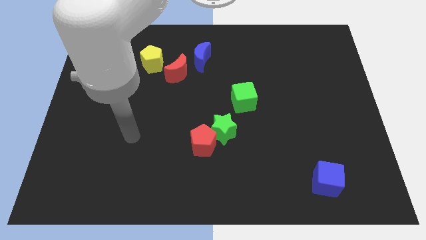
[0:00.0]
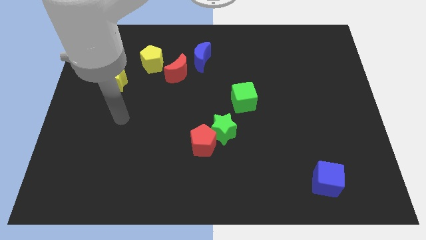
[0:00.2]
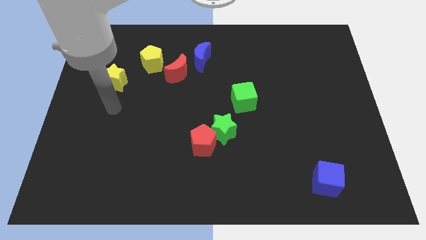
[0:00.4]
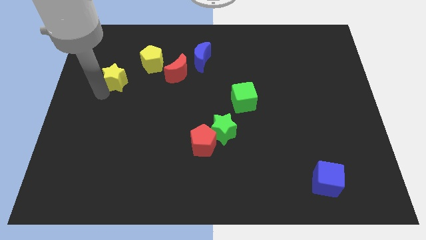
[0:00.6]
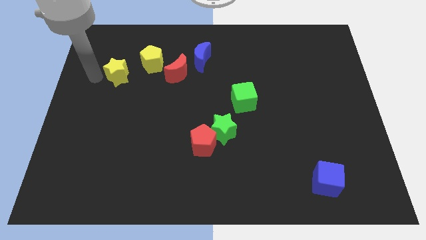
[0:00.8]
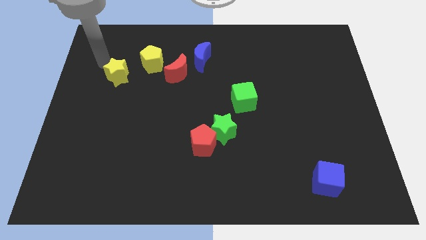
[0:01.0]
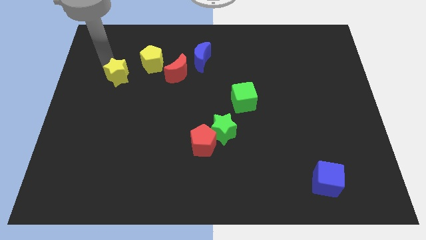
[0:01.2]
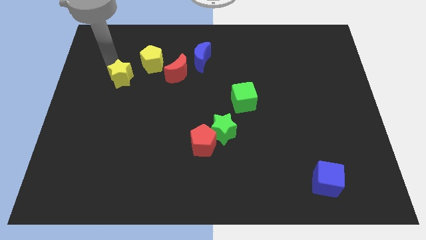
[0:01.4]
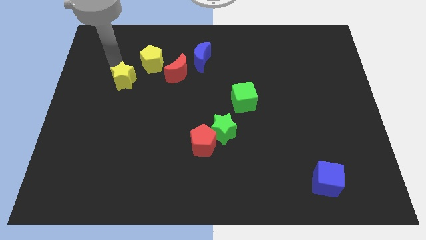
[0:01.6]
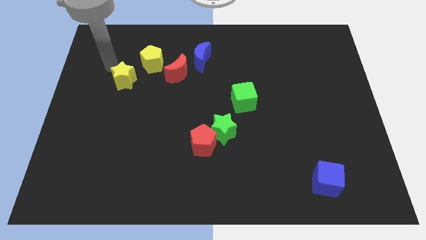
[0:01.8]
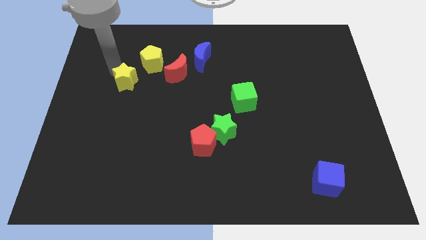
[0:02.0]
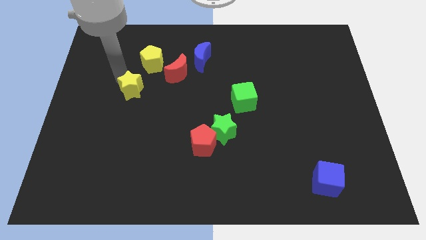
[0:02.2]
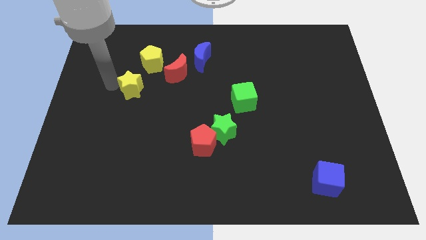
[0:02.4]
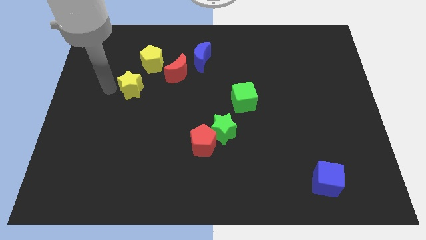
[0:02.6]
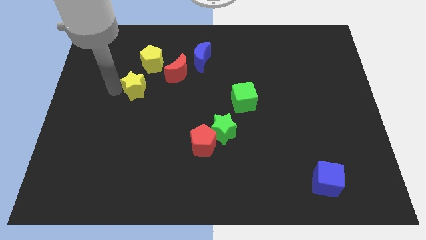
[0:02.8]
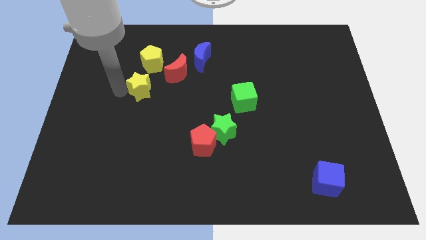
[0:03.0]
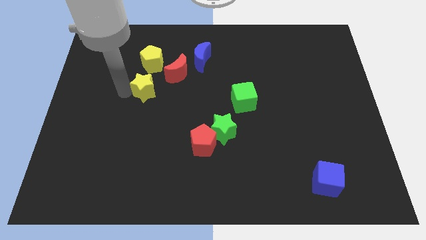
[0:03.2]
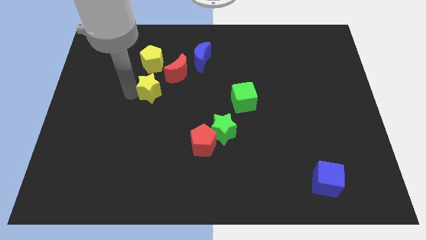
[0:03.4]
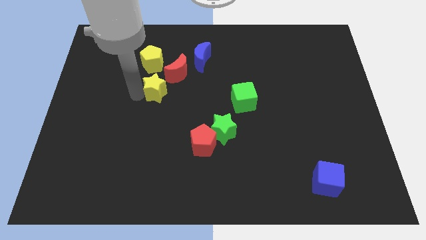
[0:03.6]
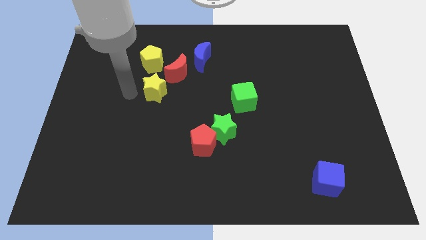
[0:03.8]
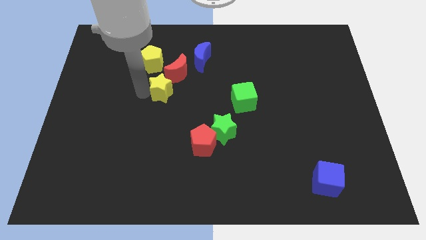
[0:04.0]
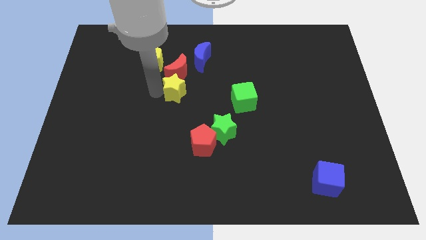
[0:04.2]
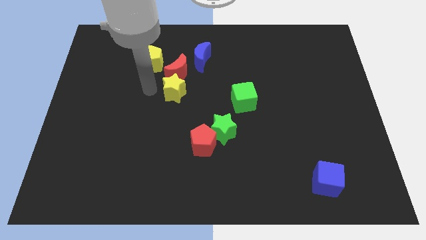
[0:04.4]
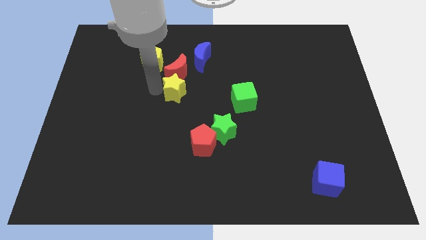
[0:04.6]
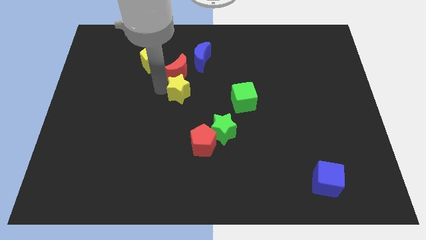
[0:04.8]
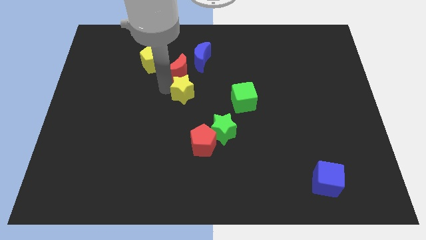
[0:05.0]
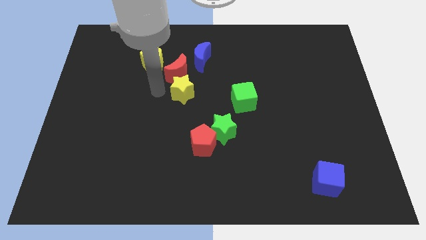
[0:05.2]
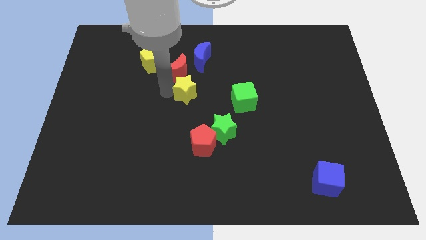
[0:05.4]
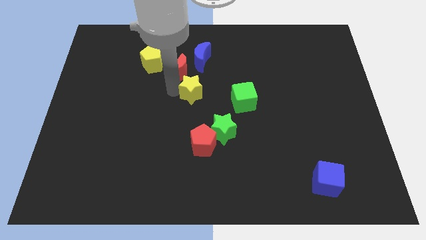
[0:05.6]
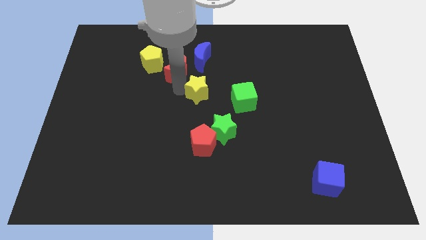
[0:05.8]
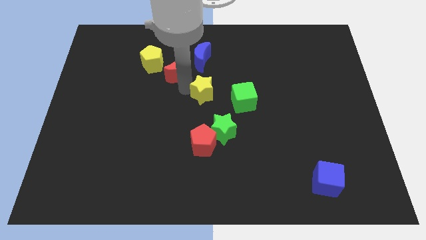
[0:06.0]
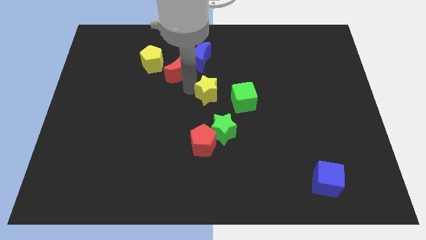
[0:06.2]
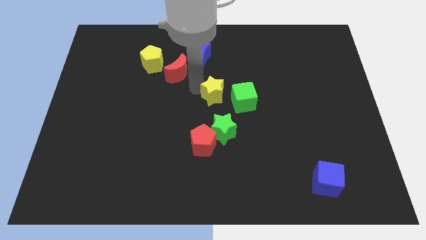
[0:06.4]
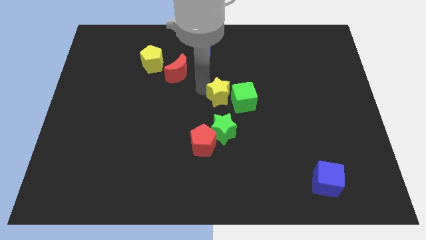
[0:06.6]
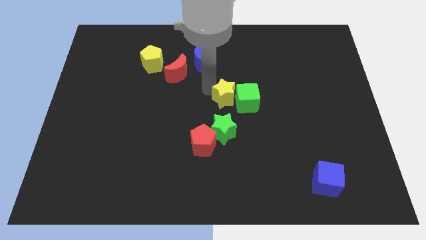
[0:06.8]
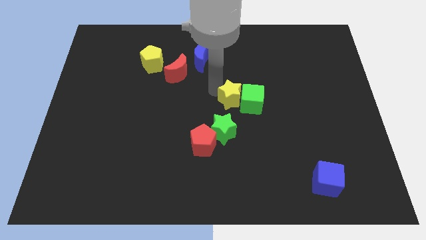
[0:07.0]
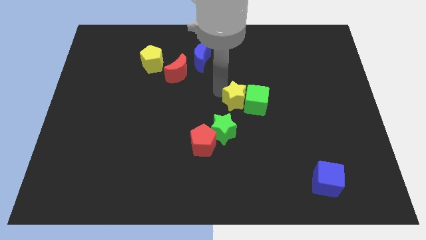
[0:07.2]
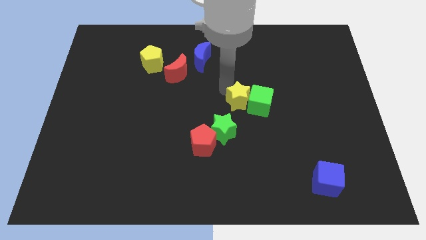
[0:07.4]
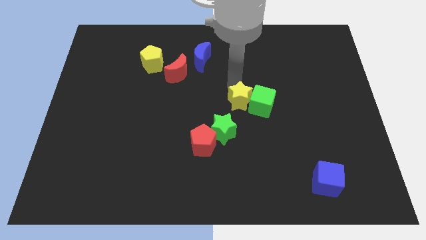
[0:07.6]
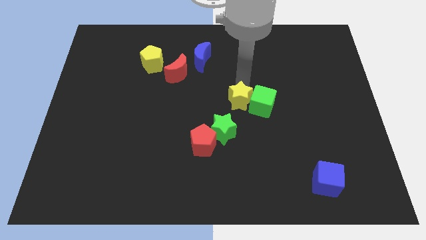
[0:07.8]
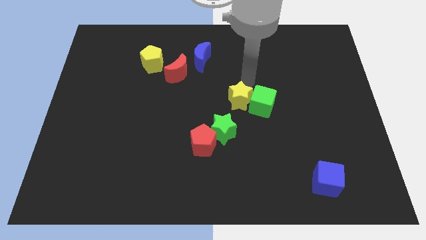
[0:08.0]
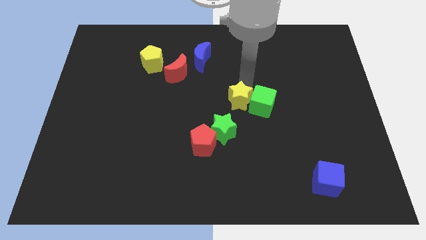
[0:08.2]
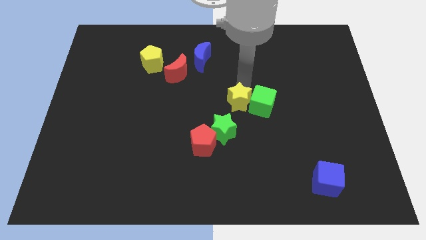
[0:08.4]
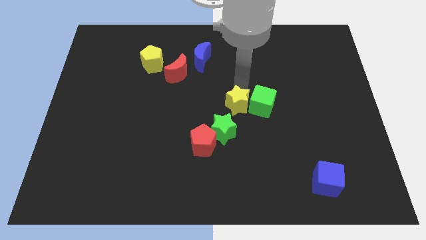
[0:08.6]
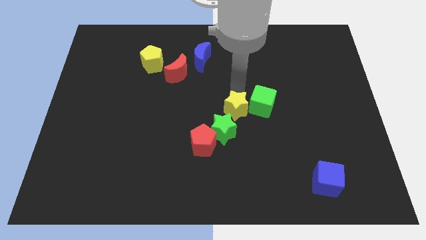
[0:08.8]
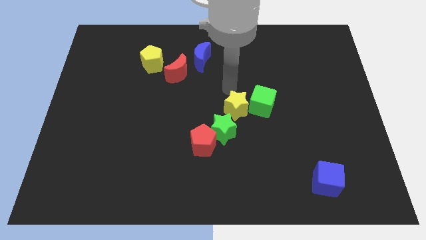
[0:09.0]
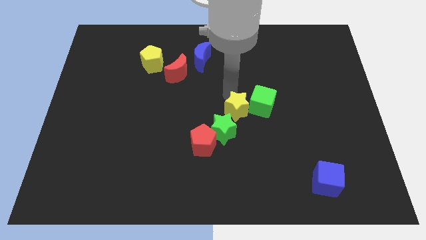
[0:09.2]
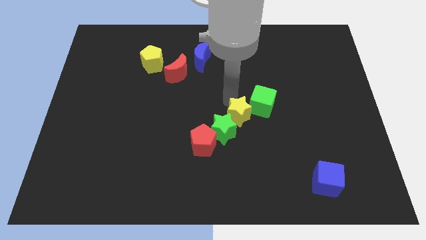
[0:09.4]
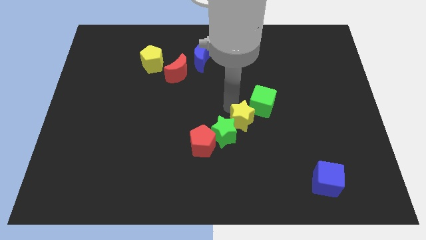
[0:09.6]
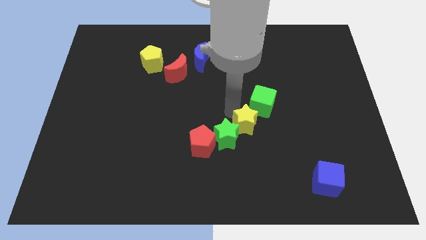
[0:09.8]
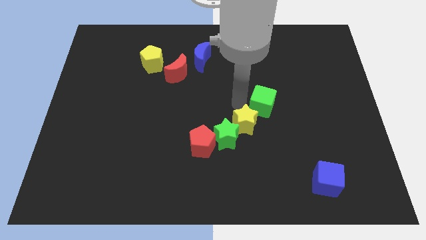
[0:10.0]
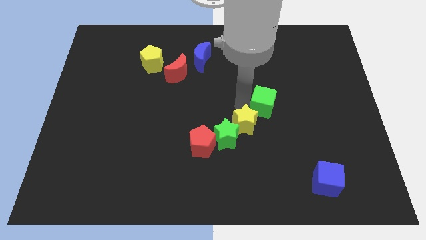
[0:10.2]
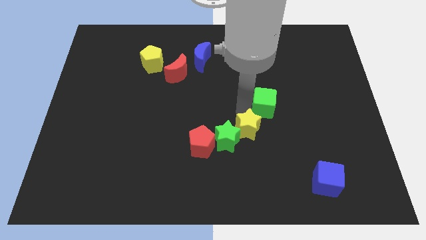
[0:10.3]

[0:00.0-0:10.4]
put the yellow star just right of the red pentagon

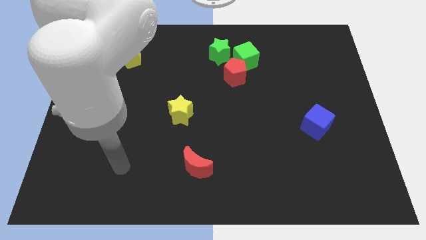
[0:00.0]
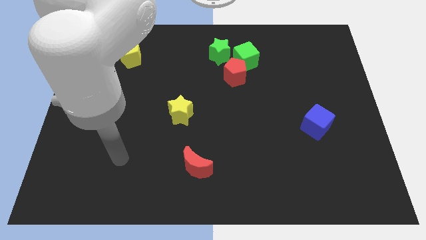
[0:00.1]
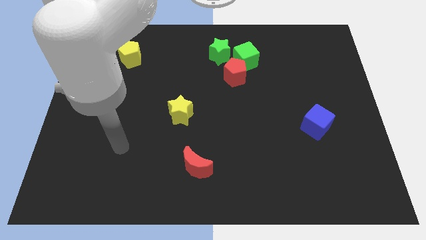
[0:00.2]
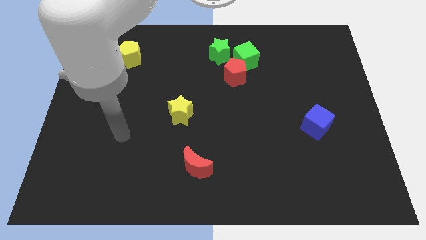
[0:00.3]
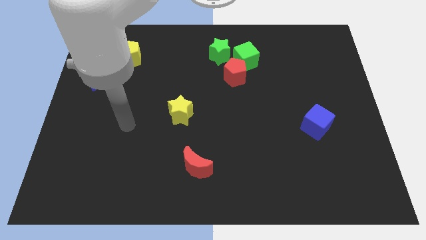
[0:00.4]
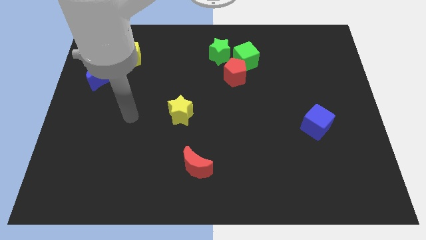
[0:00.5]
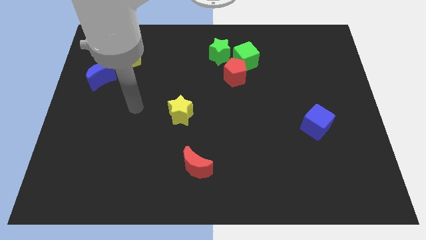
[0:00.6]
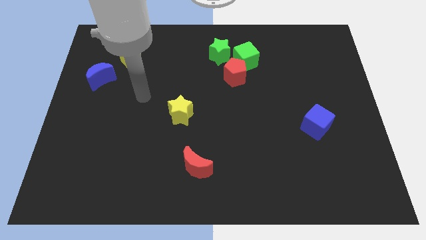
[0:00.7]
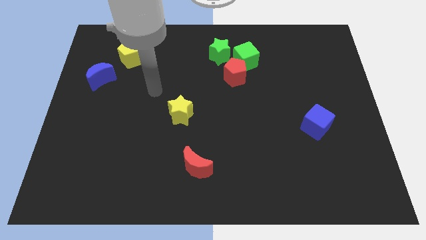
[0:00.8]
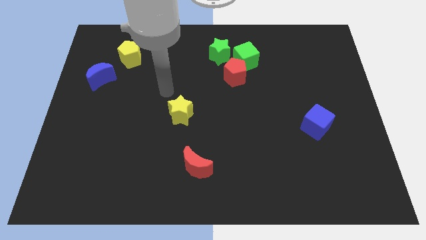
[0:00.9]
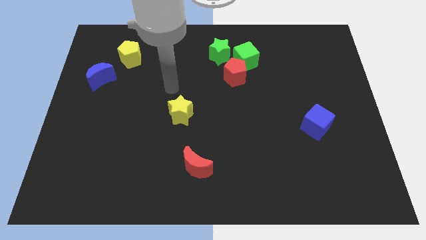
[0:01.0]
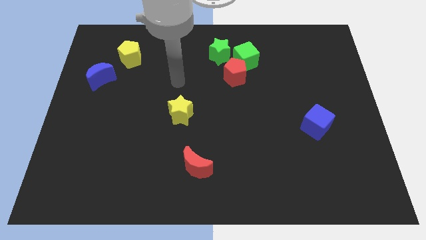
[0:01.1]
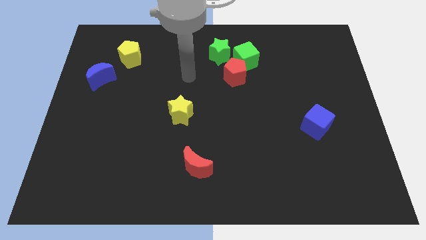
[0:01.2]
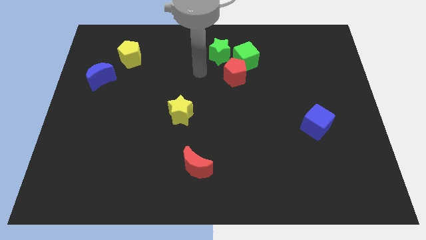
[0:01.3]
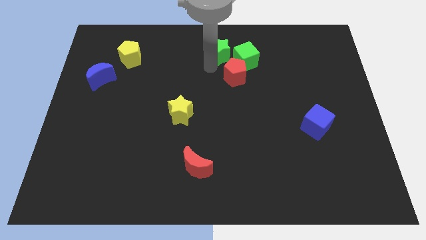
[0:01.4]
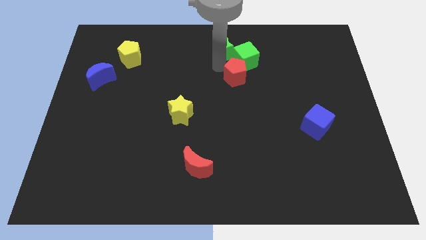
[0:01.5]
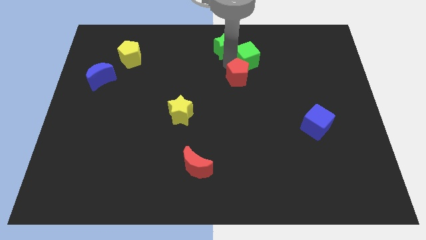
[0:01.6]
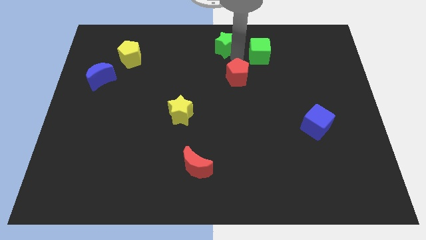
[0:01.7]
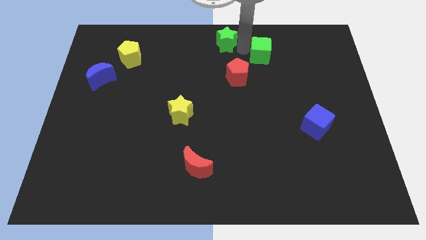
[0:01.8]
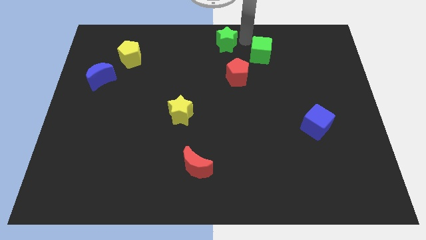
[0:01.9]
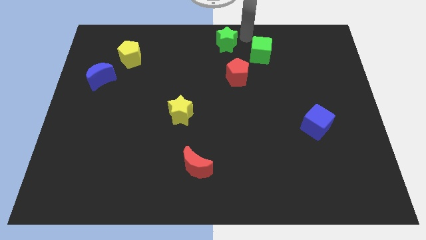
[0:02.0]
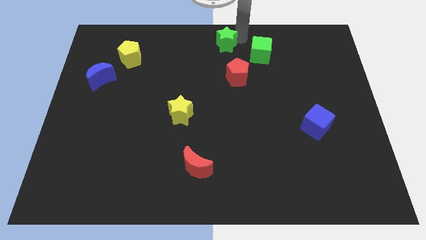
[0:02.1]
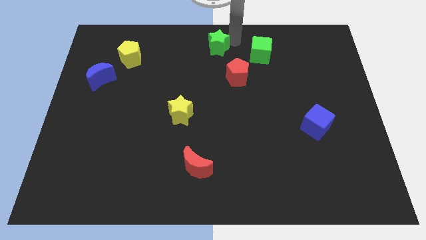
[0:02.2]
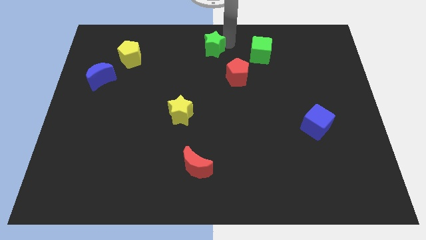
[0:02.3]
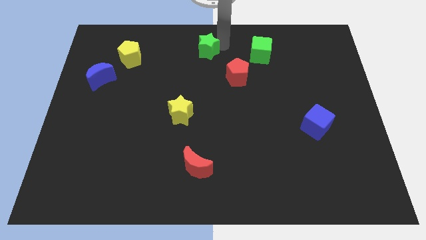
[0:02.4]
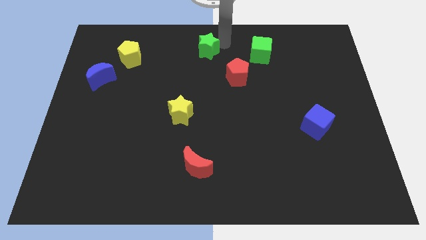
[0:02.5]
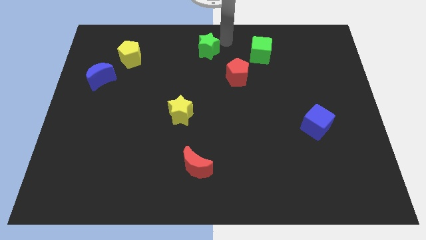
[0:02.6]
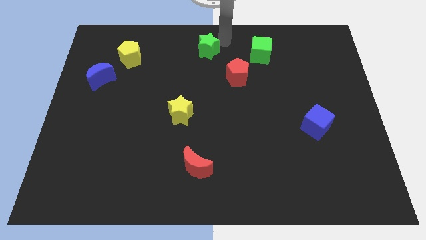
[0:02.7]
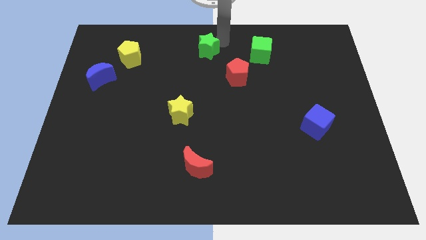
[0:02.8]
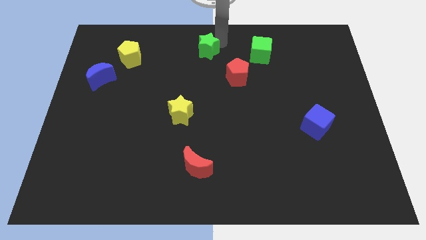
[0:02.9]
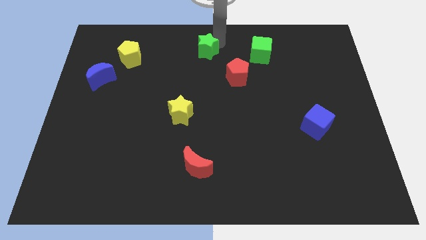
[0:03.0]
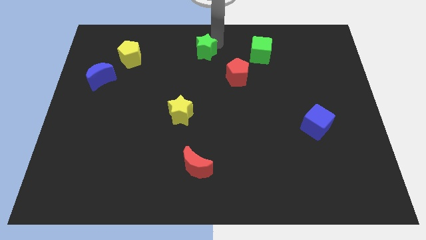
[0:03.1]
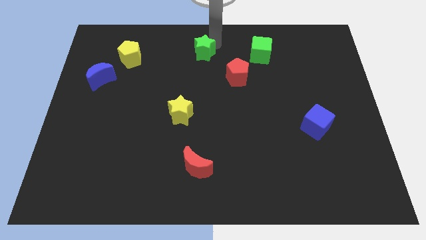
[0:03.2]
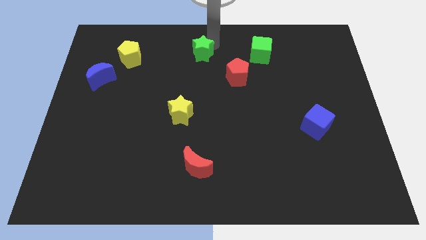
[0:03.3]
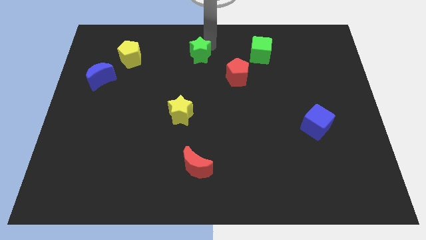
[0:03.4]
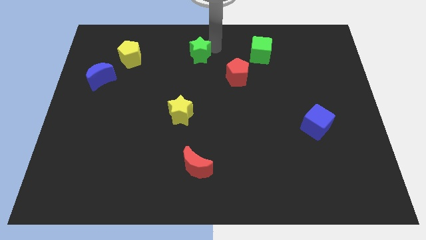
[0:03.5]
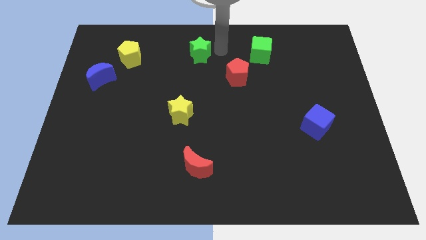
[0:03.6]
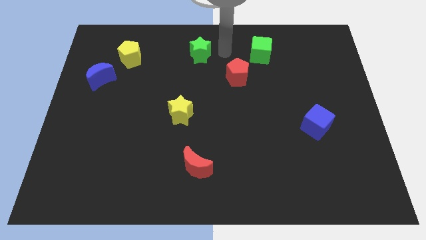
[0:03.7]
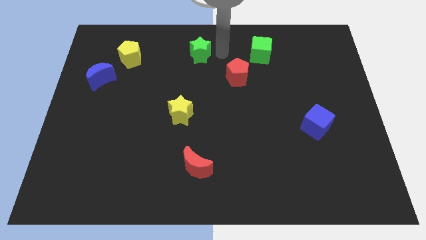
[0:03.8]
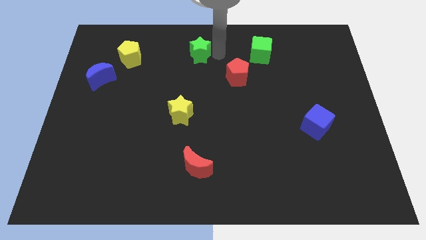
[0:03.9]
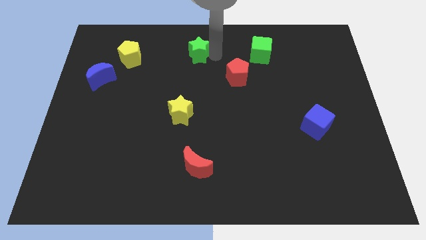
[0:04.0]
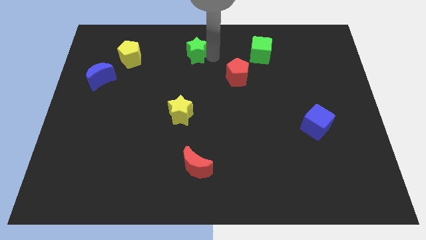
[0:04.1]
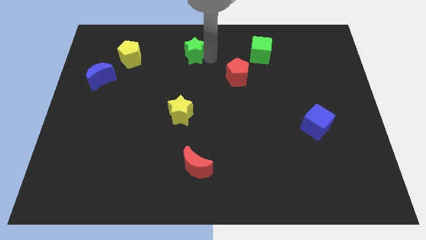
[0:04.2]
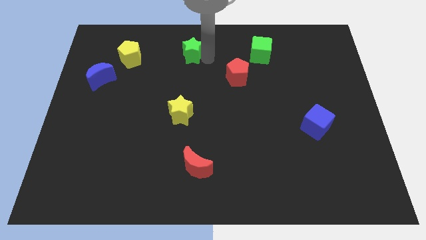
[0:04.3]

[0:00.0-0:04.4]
slide the green star to the right of the yellow pentagon
